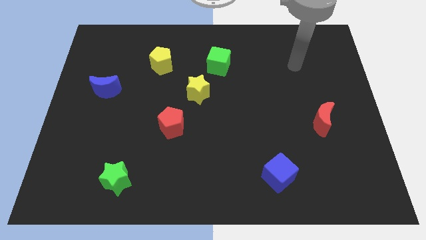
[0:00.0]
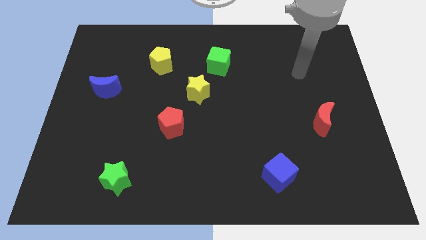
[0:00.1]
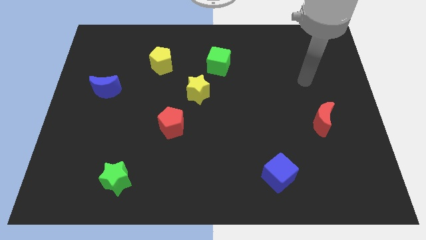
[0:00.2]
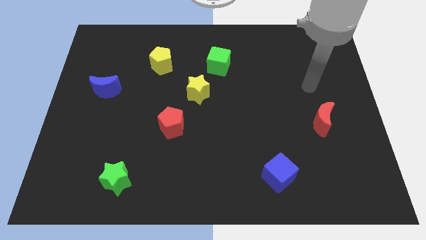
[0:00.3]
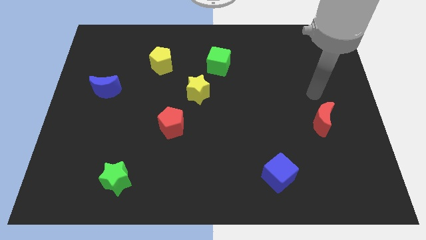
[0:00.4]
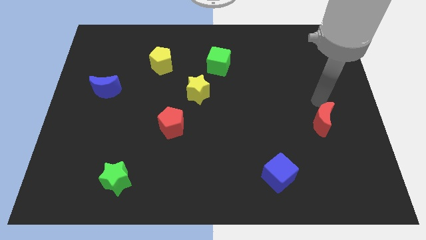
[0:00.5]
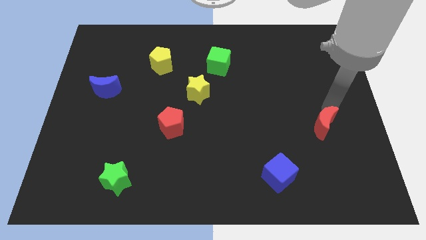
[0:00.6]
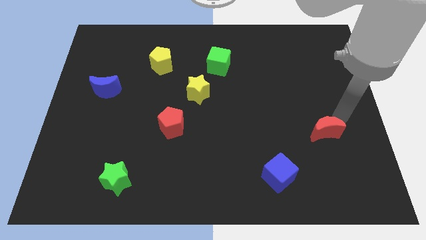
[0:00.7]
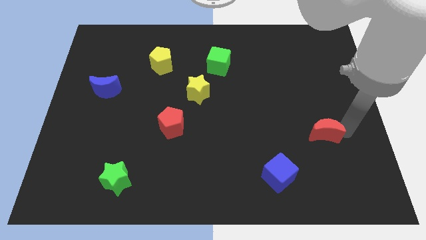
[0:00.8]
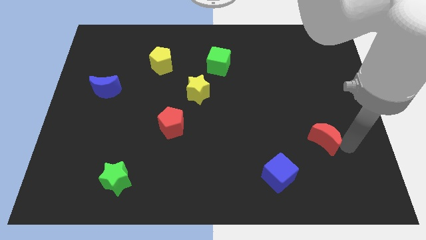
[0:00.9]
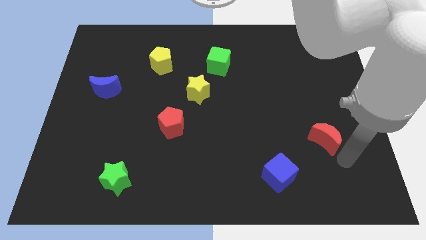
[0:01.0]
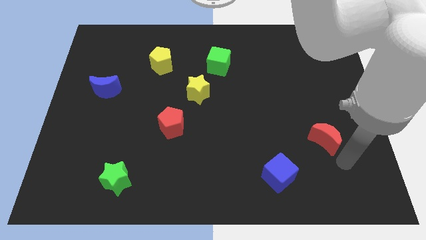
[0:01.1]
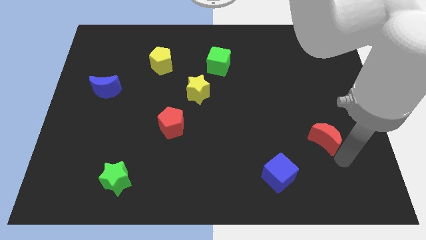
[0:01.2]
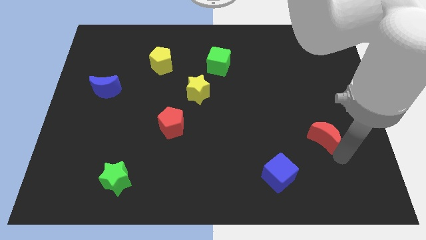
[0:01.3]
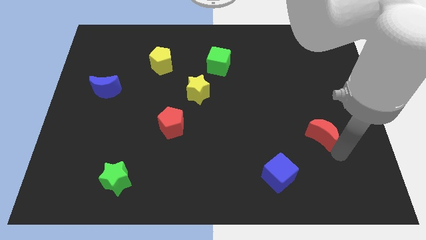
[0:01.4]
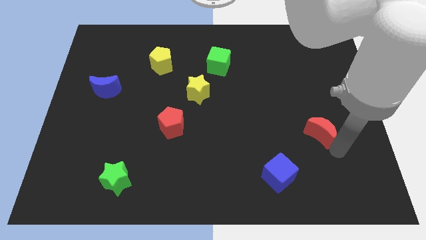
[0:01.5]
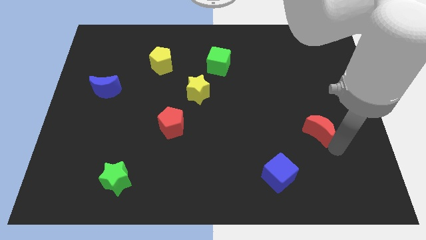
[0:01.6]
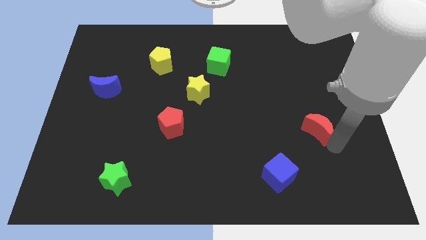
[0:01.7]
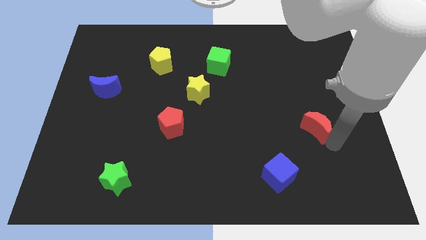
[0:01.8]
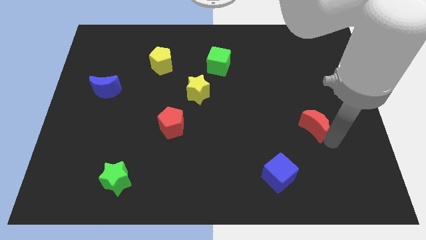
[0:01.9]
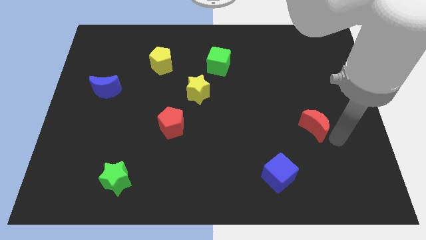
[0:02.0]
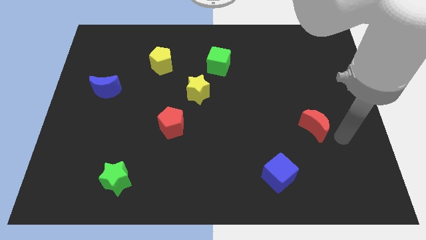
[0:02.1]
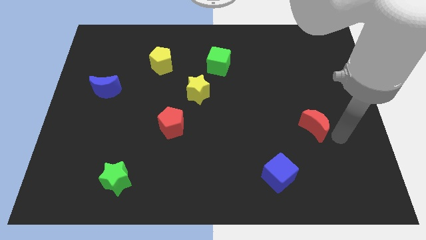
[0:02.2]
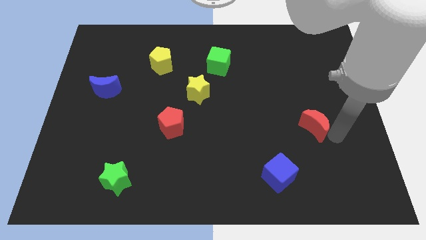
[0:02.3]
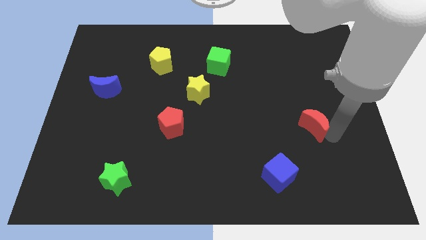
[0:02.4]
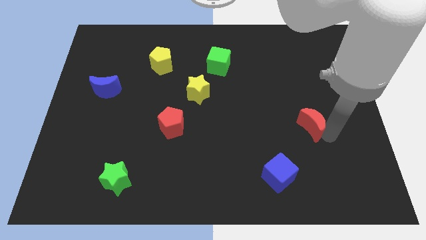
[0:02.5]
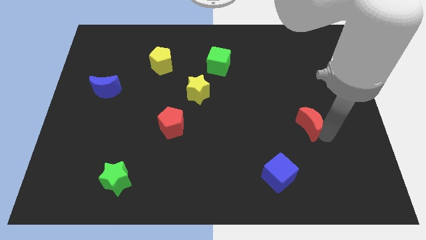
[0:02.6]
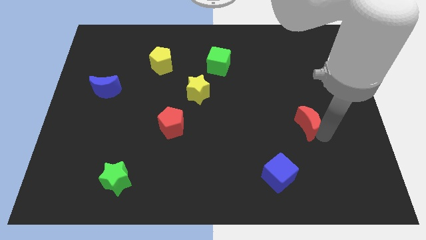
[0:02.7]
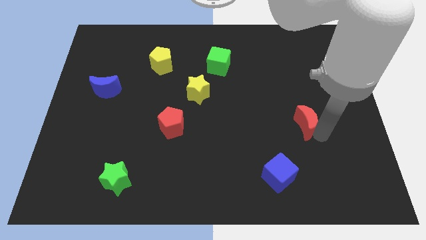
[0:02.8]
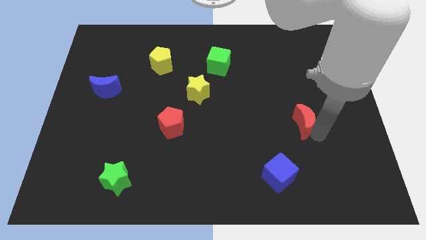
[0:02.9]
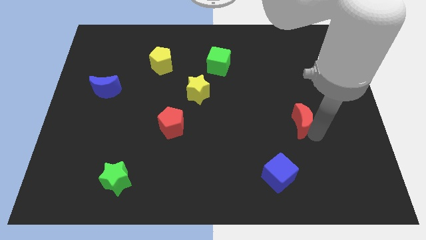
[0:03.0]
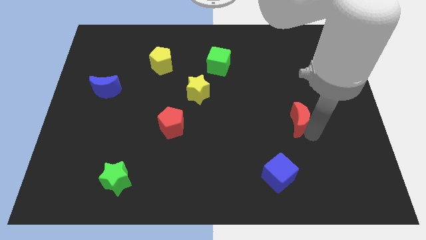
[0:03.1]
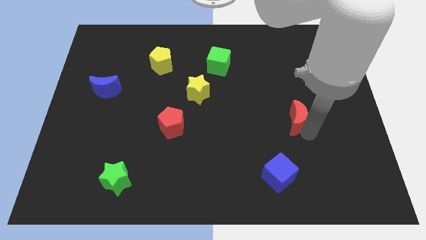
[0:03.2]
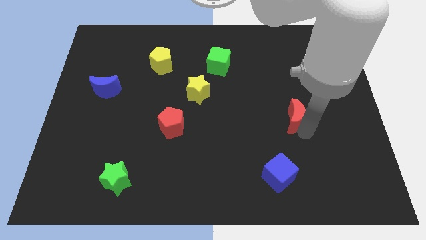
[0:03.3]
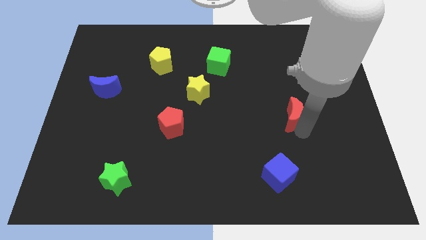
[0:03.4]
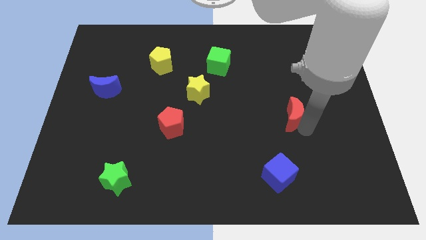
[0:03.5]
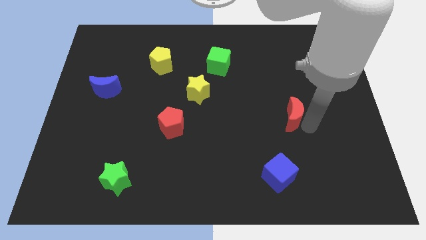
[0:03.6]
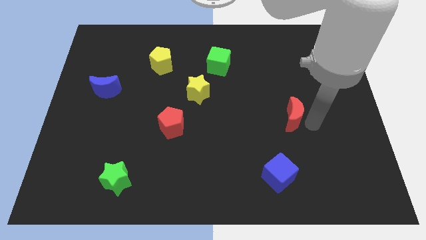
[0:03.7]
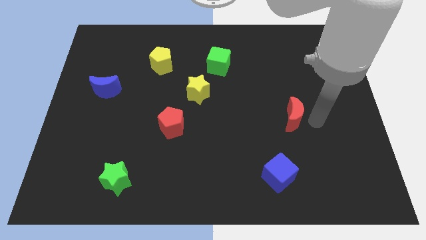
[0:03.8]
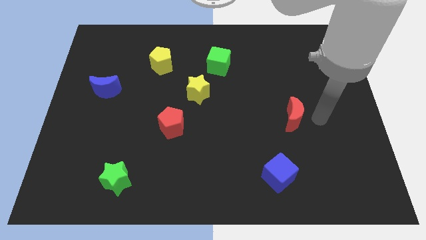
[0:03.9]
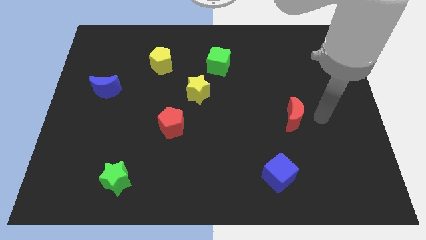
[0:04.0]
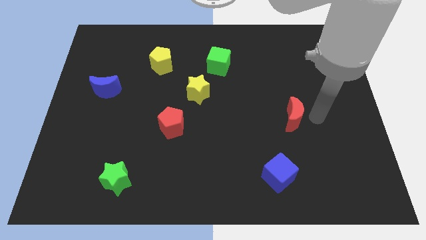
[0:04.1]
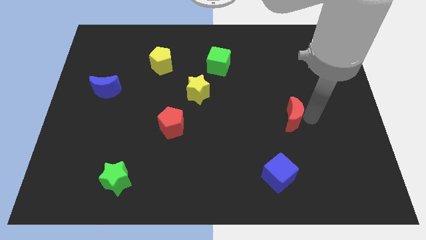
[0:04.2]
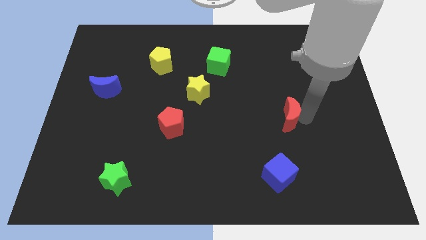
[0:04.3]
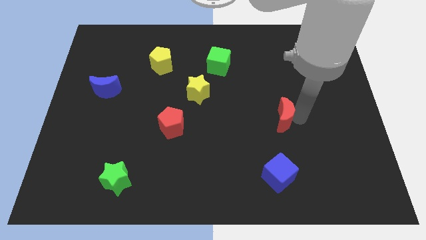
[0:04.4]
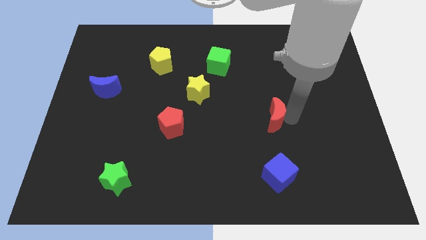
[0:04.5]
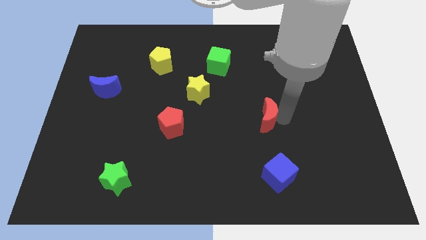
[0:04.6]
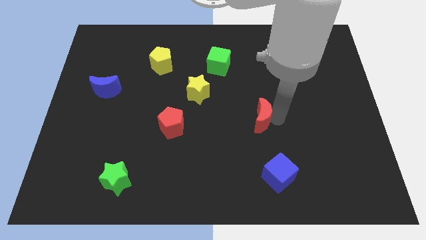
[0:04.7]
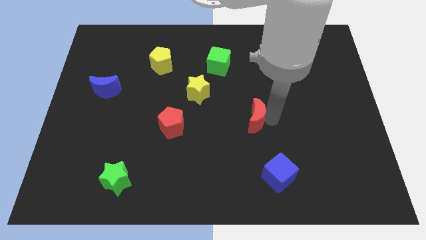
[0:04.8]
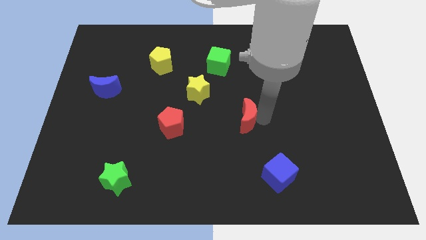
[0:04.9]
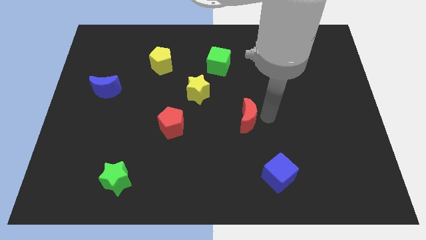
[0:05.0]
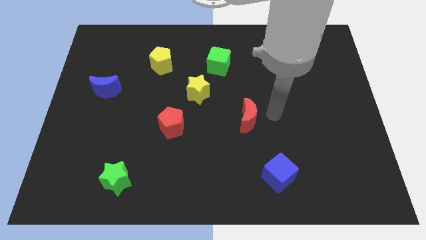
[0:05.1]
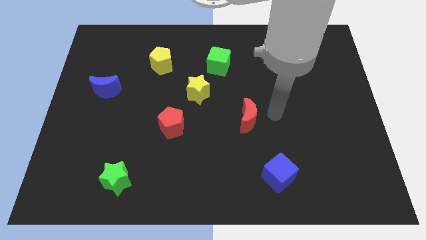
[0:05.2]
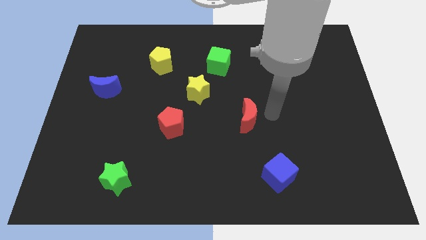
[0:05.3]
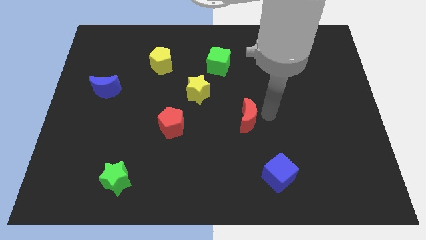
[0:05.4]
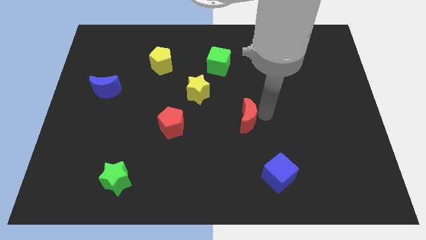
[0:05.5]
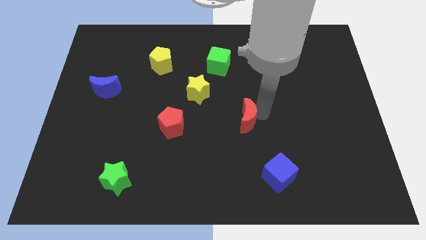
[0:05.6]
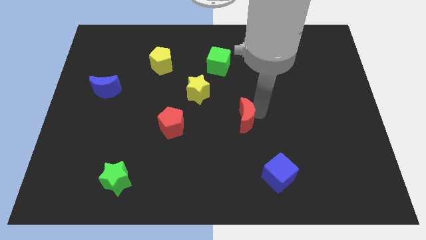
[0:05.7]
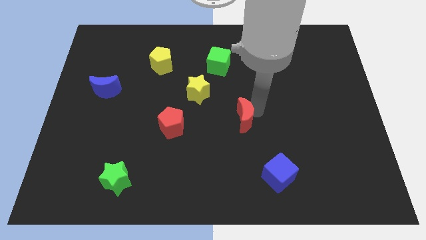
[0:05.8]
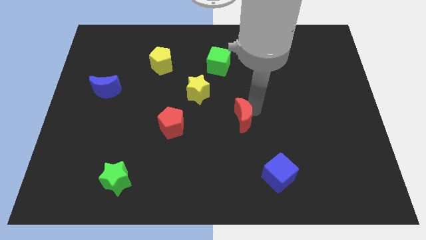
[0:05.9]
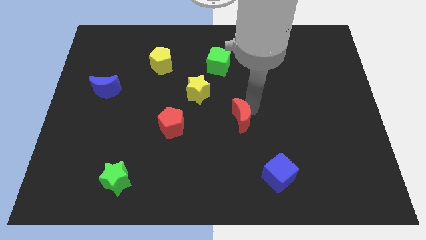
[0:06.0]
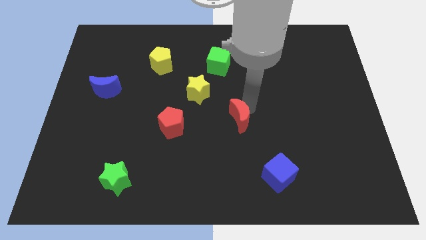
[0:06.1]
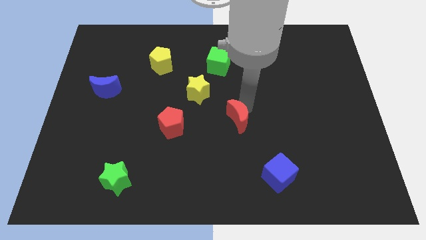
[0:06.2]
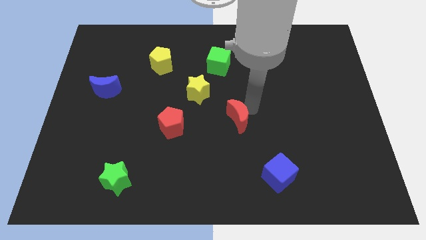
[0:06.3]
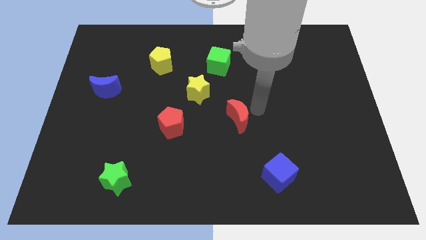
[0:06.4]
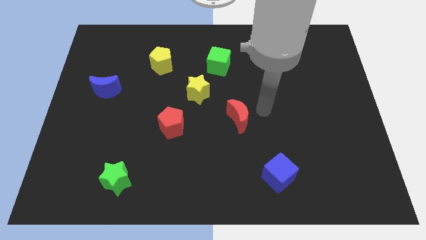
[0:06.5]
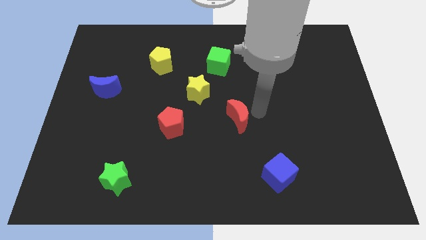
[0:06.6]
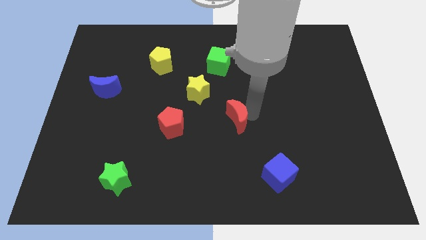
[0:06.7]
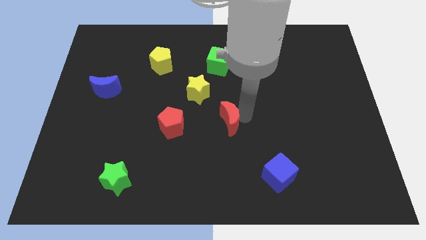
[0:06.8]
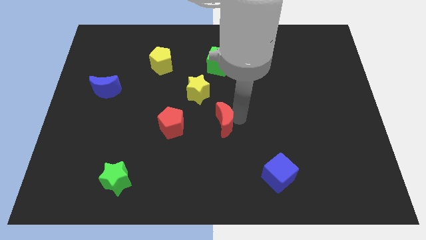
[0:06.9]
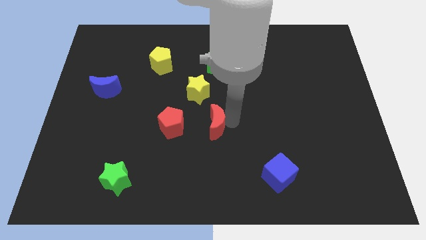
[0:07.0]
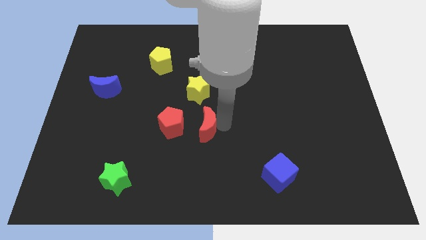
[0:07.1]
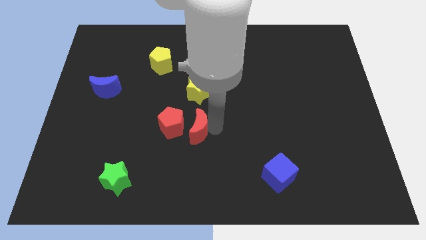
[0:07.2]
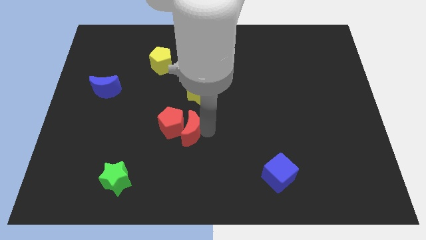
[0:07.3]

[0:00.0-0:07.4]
move the red moon to the red pentagon
